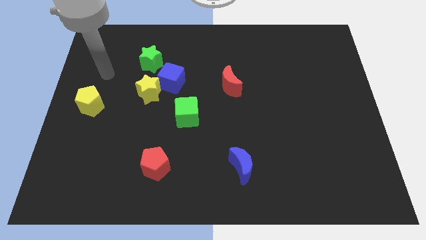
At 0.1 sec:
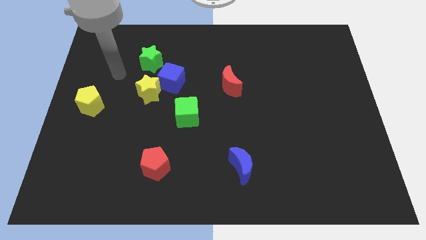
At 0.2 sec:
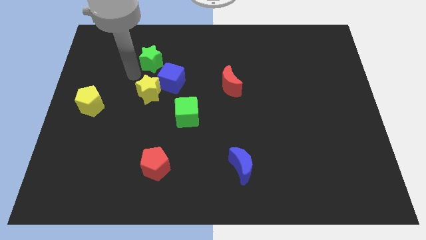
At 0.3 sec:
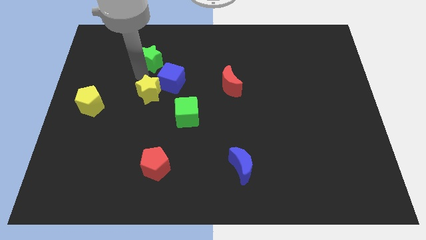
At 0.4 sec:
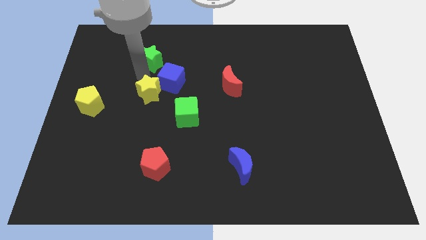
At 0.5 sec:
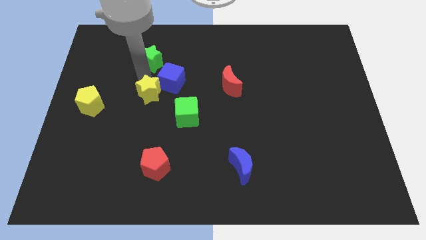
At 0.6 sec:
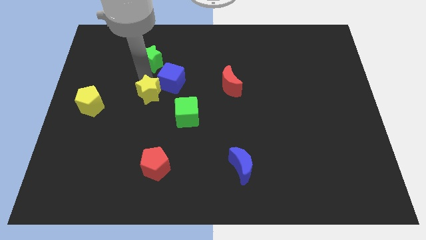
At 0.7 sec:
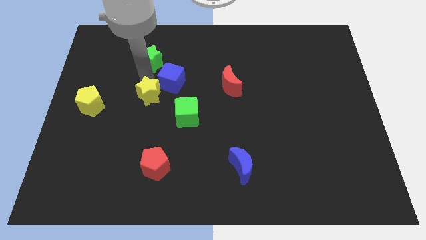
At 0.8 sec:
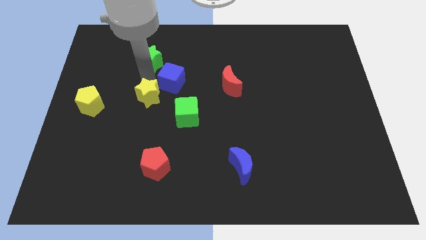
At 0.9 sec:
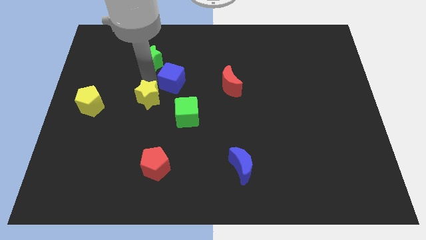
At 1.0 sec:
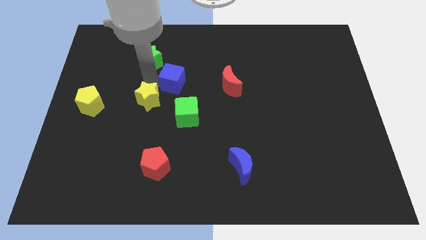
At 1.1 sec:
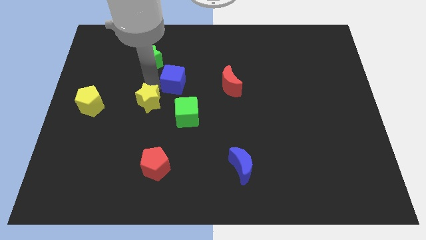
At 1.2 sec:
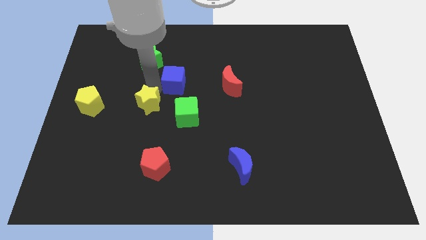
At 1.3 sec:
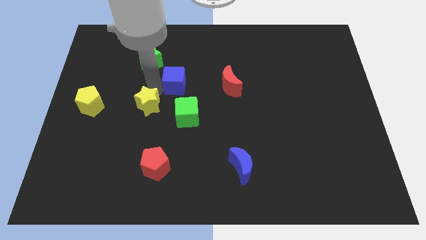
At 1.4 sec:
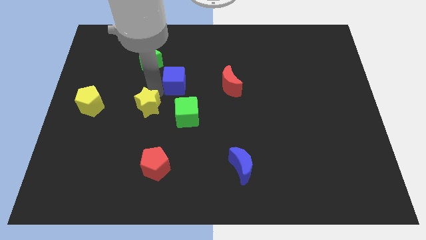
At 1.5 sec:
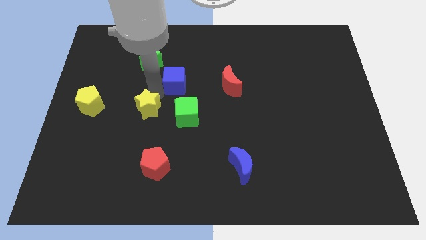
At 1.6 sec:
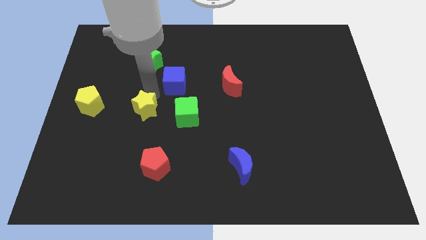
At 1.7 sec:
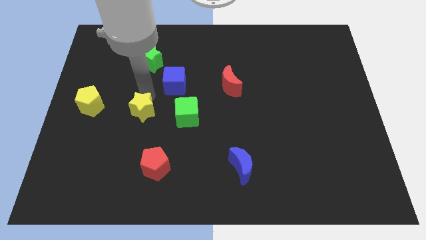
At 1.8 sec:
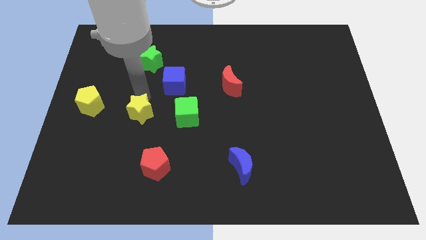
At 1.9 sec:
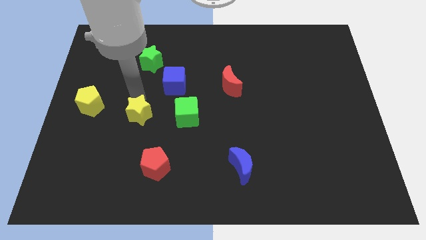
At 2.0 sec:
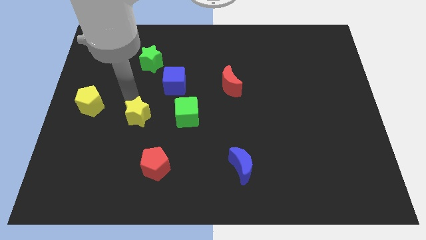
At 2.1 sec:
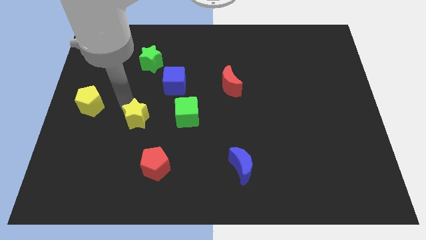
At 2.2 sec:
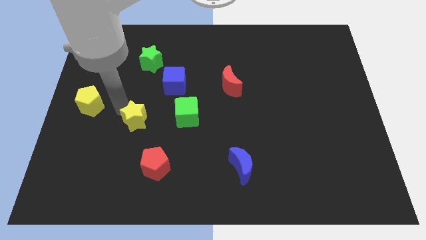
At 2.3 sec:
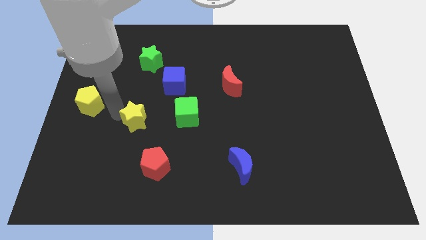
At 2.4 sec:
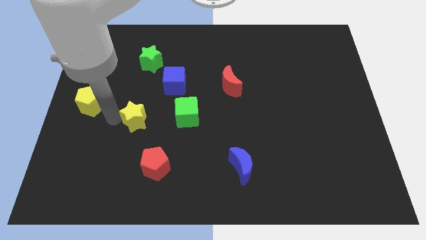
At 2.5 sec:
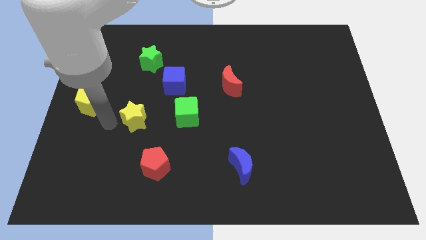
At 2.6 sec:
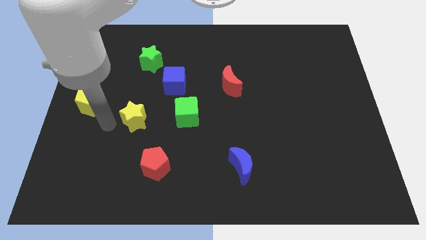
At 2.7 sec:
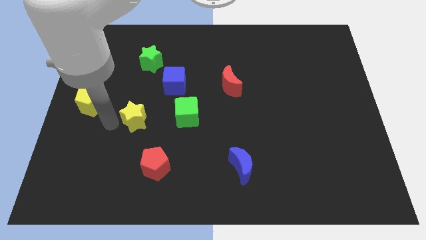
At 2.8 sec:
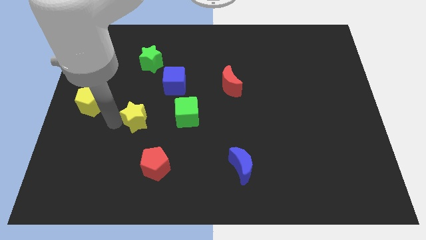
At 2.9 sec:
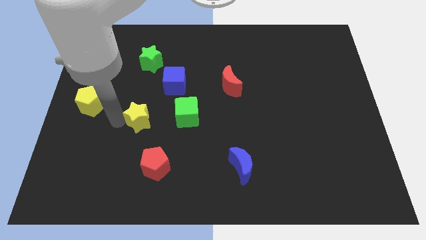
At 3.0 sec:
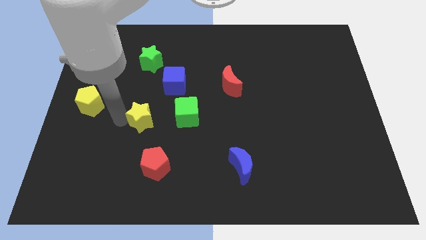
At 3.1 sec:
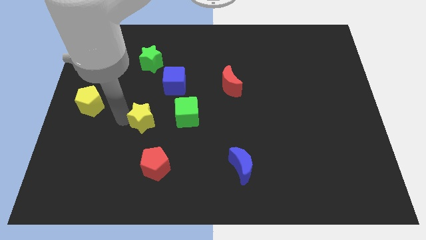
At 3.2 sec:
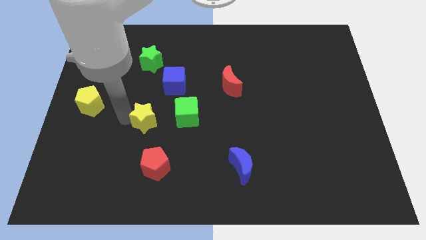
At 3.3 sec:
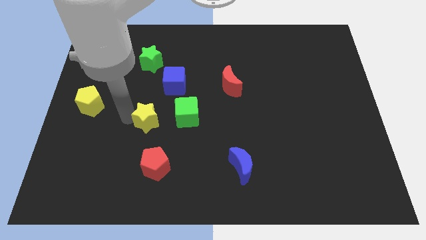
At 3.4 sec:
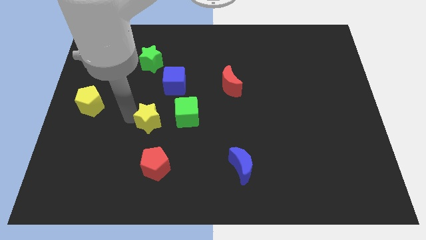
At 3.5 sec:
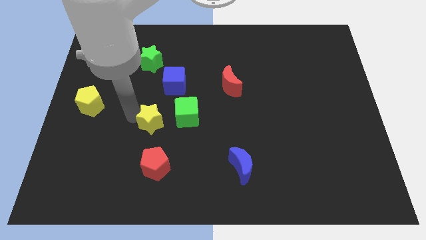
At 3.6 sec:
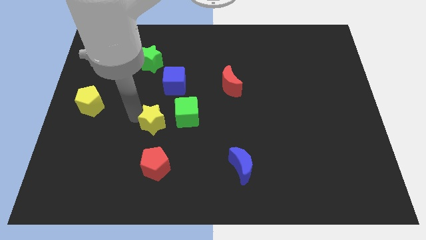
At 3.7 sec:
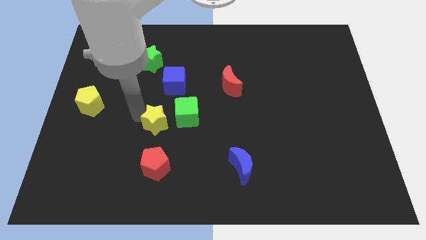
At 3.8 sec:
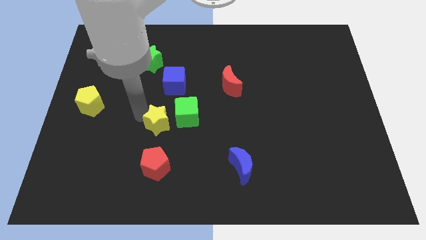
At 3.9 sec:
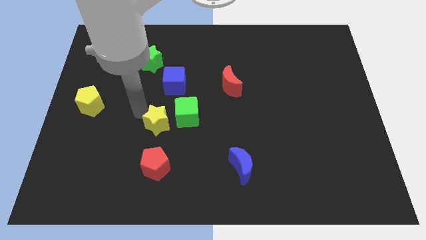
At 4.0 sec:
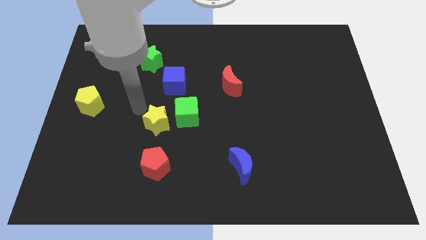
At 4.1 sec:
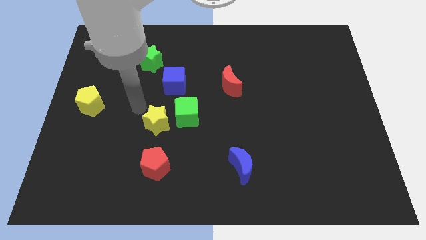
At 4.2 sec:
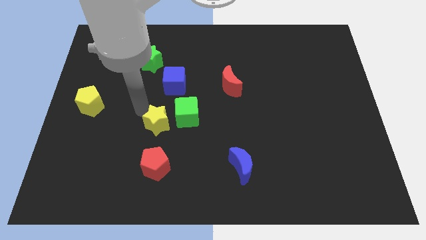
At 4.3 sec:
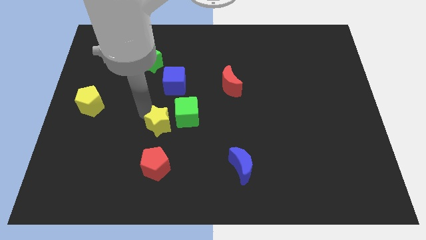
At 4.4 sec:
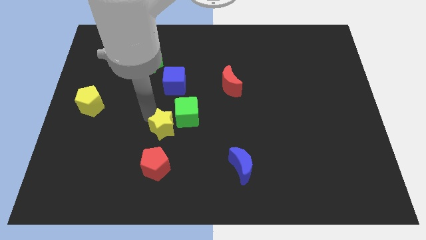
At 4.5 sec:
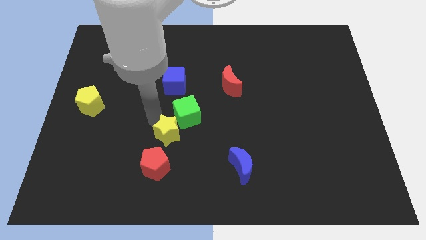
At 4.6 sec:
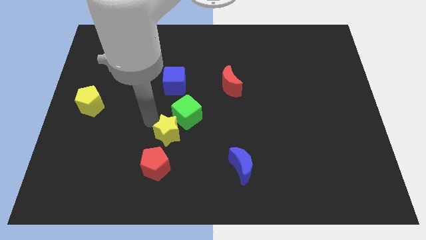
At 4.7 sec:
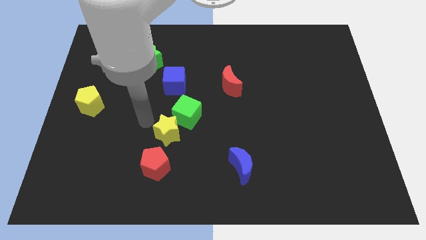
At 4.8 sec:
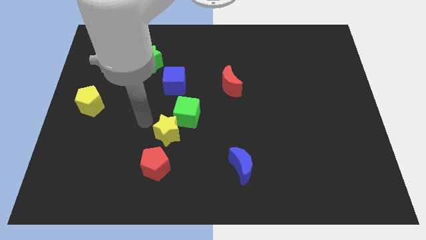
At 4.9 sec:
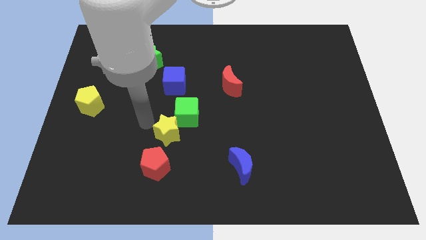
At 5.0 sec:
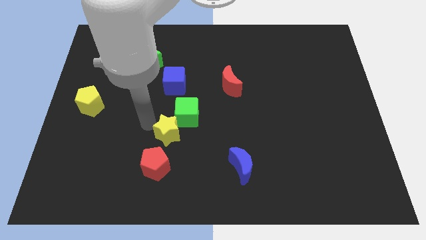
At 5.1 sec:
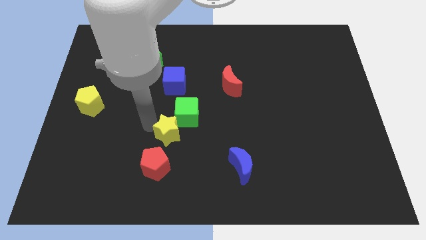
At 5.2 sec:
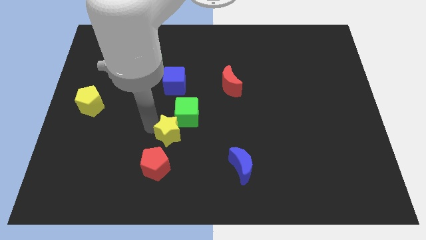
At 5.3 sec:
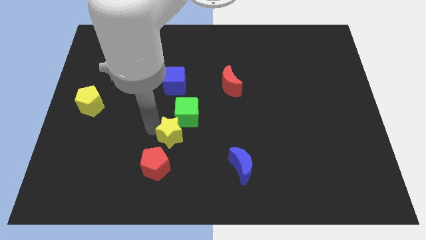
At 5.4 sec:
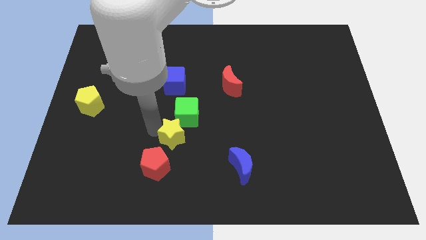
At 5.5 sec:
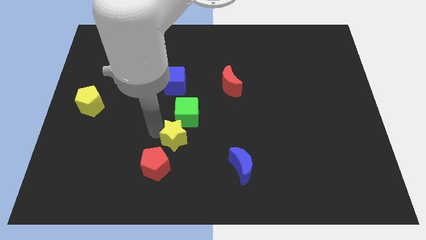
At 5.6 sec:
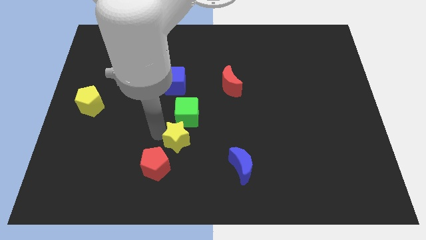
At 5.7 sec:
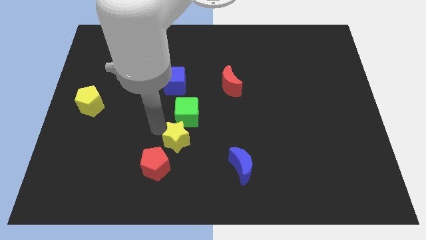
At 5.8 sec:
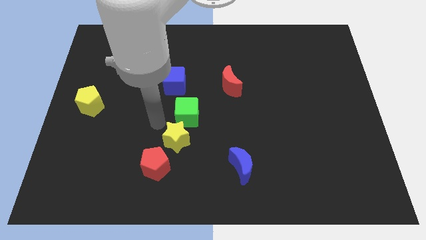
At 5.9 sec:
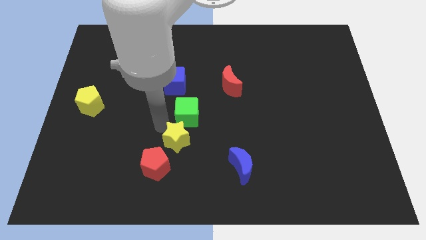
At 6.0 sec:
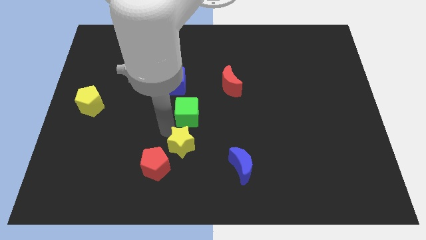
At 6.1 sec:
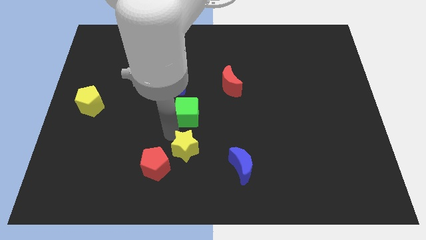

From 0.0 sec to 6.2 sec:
push the yellow star just right of the red pentagon
